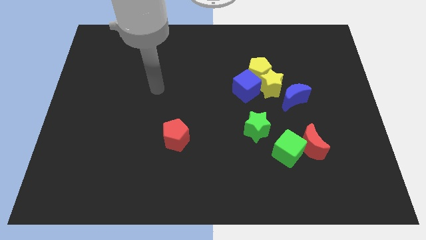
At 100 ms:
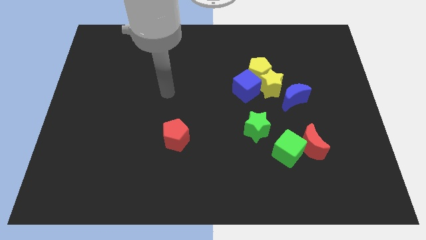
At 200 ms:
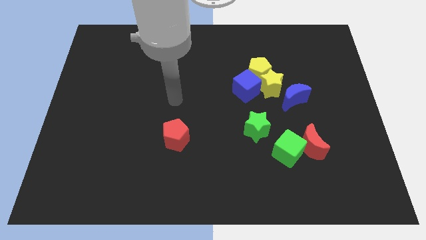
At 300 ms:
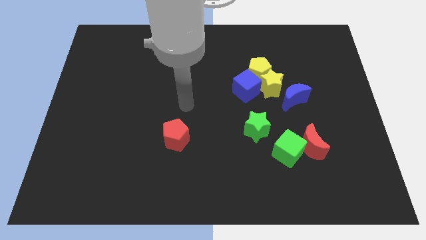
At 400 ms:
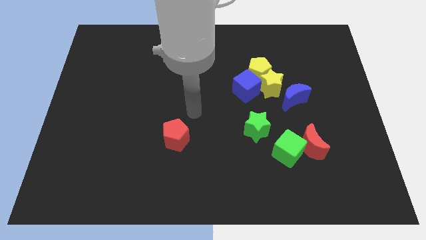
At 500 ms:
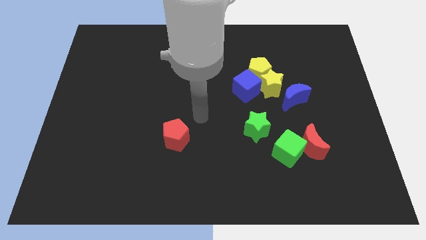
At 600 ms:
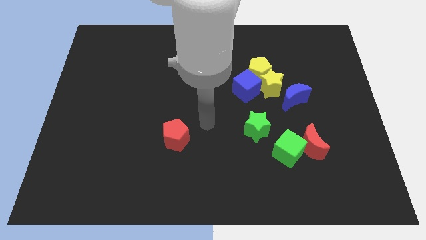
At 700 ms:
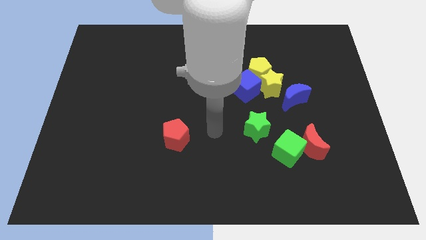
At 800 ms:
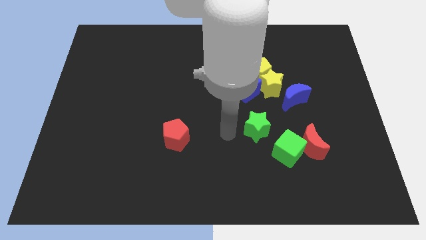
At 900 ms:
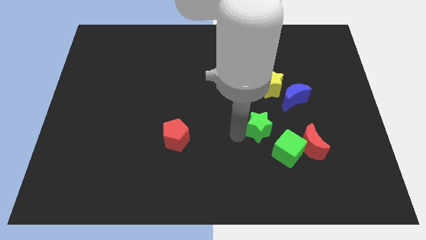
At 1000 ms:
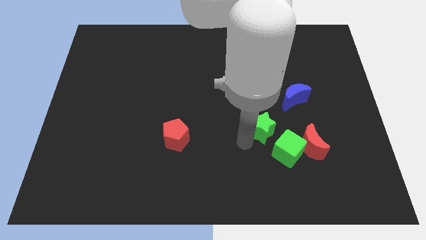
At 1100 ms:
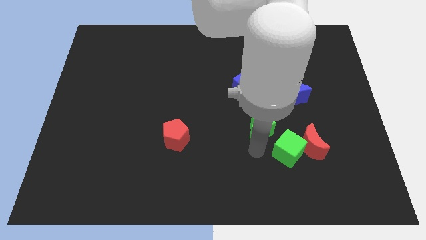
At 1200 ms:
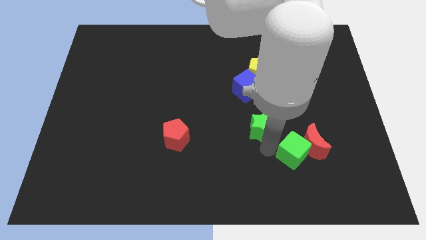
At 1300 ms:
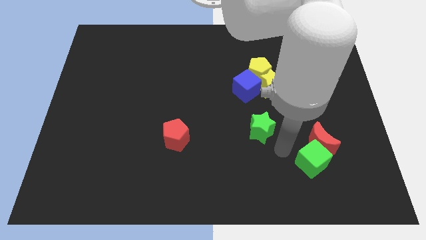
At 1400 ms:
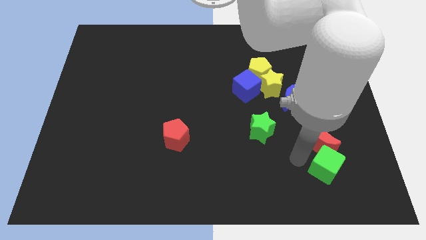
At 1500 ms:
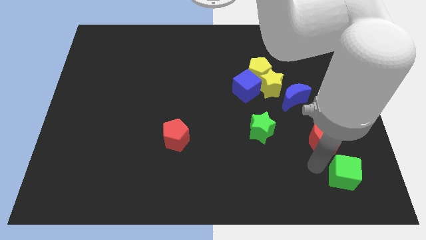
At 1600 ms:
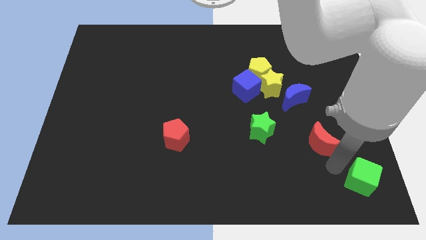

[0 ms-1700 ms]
move the red moon away from the green cube

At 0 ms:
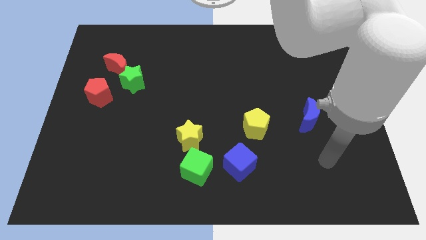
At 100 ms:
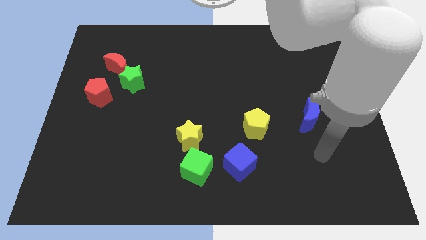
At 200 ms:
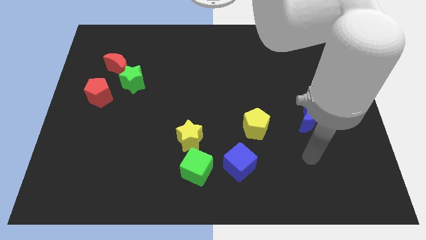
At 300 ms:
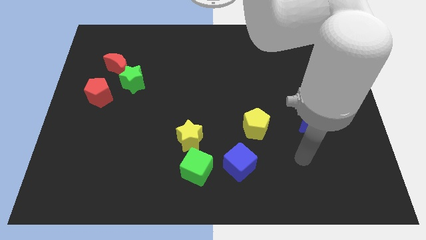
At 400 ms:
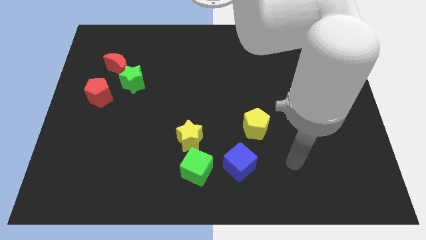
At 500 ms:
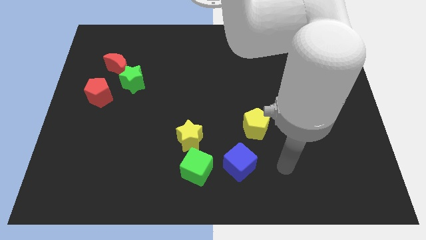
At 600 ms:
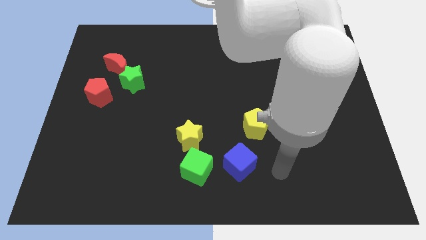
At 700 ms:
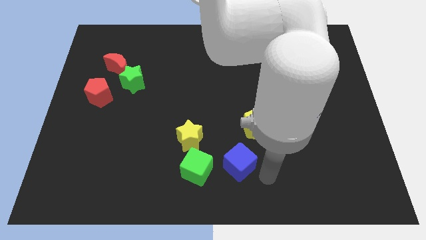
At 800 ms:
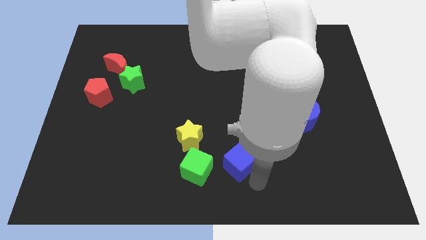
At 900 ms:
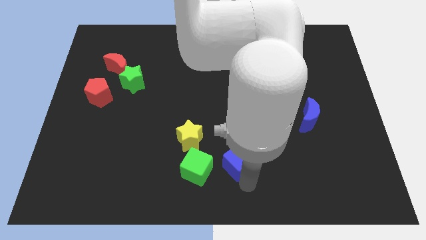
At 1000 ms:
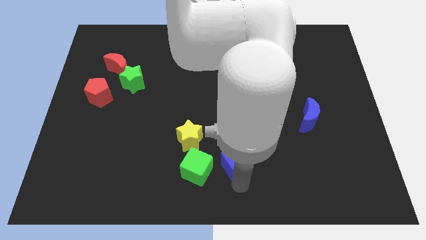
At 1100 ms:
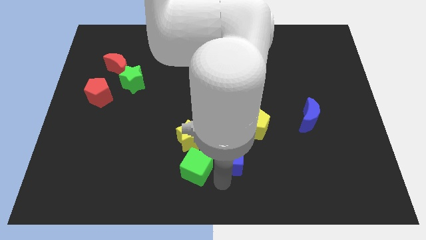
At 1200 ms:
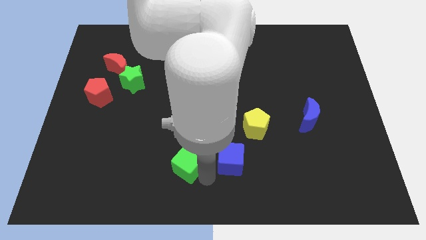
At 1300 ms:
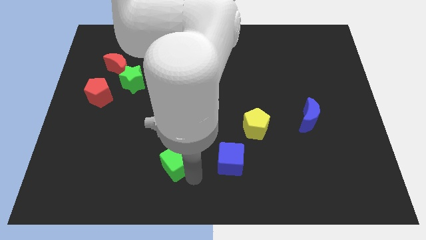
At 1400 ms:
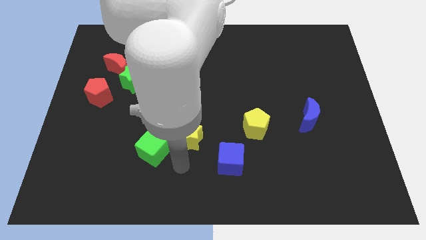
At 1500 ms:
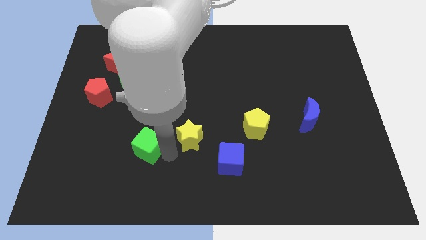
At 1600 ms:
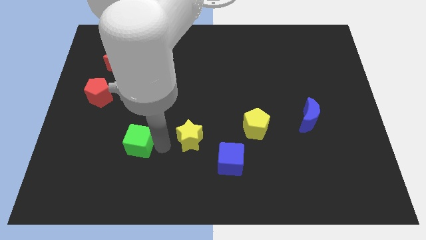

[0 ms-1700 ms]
move the yellow star away from the green cube

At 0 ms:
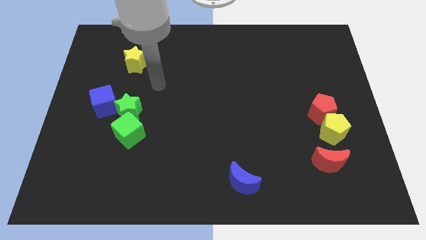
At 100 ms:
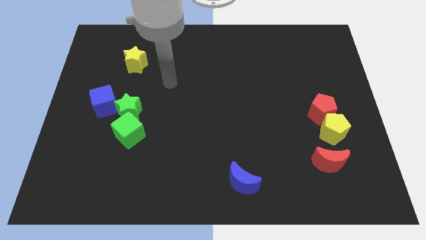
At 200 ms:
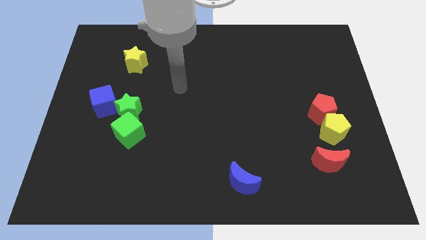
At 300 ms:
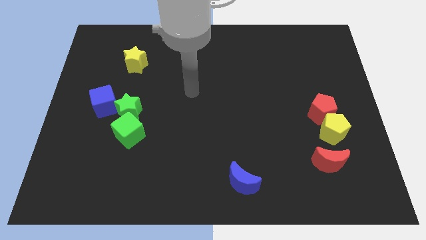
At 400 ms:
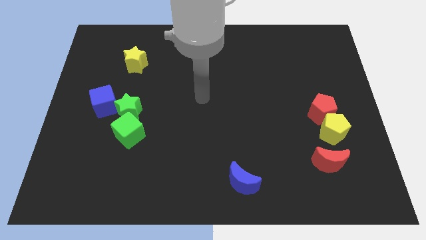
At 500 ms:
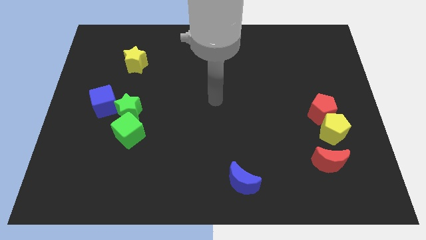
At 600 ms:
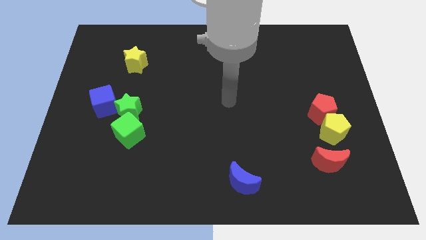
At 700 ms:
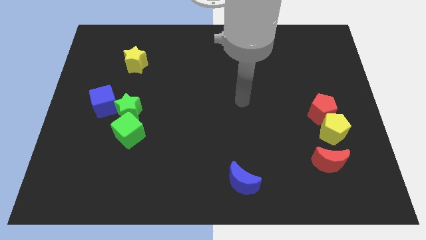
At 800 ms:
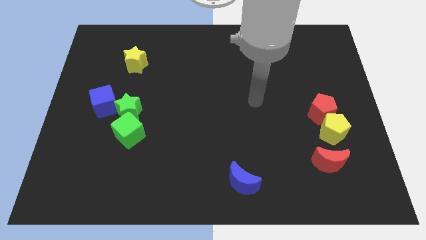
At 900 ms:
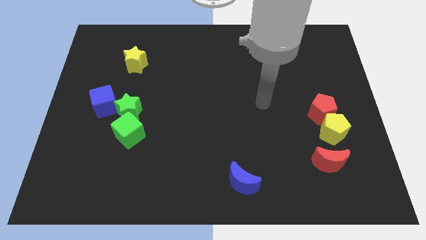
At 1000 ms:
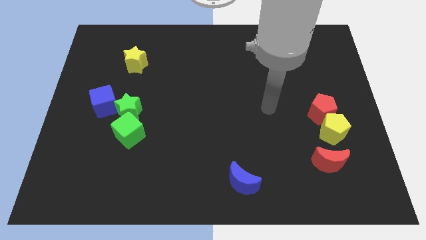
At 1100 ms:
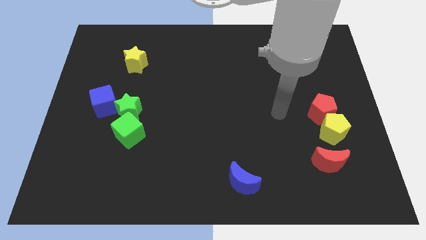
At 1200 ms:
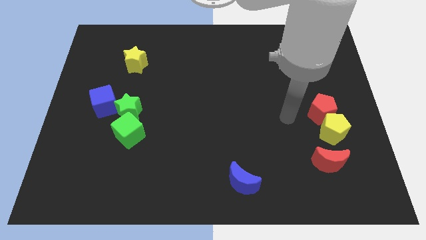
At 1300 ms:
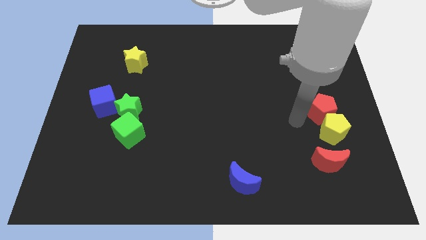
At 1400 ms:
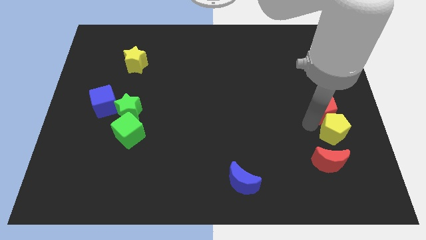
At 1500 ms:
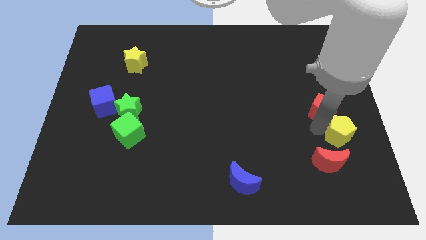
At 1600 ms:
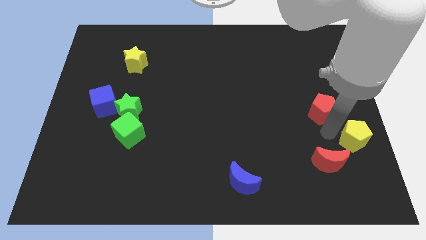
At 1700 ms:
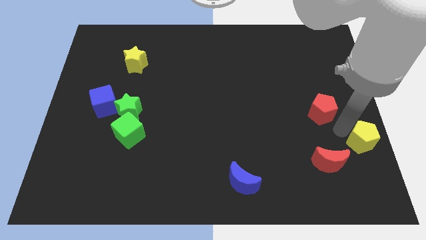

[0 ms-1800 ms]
move the red pentagon away from the yellow pentagon

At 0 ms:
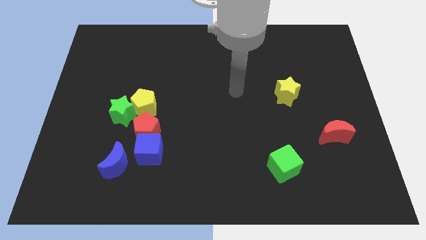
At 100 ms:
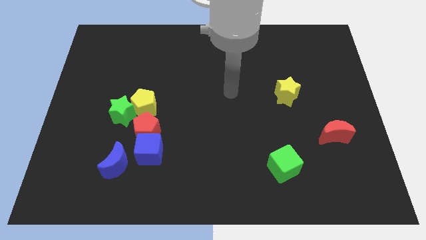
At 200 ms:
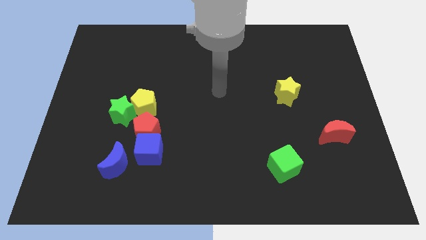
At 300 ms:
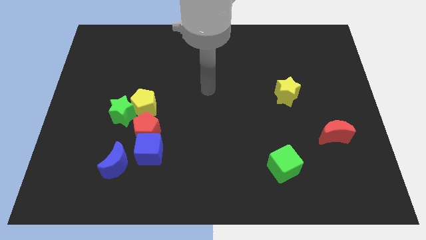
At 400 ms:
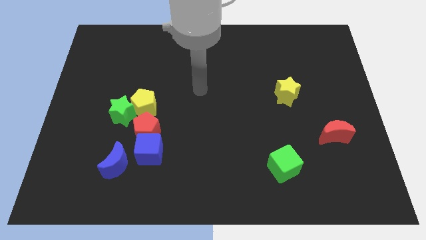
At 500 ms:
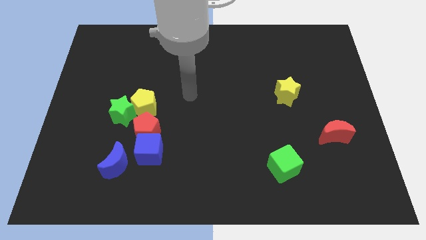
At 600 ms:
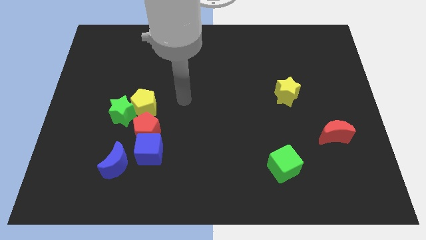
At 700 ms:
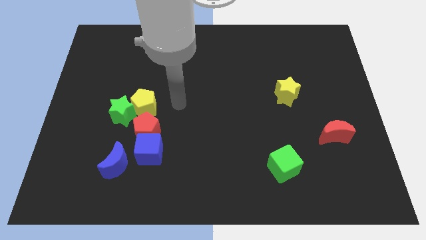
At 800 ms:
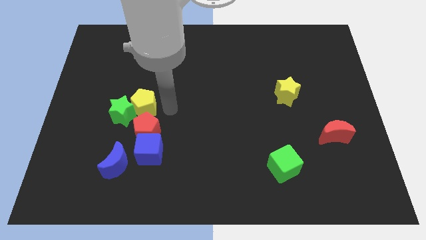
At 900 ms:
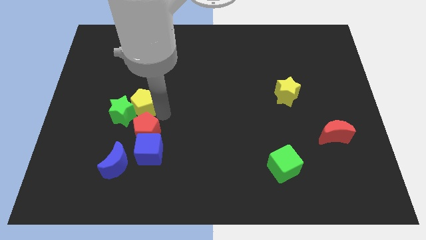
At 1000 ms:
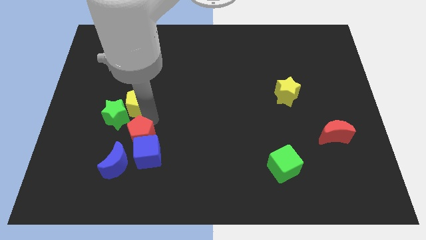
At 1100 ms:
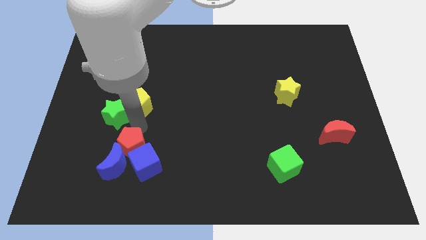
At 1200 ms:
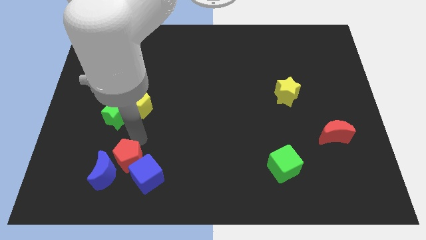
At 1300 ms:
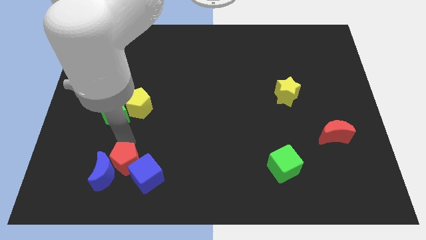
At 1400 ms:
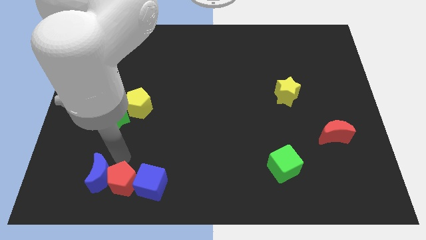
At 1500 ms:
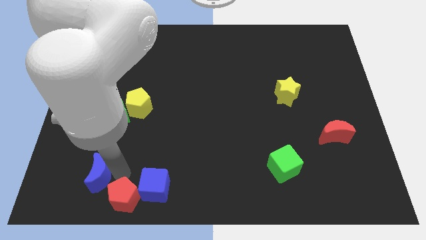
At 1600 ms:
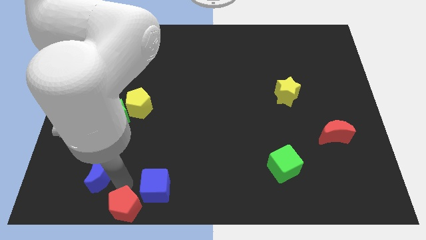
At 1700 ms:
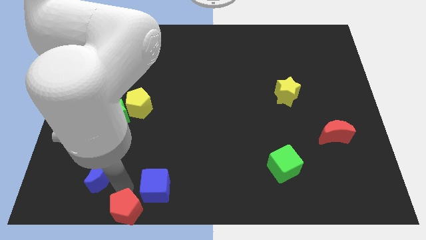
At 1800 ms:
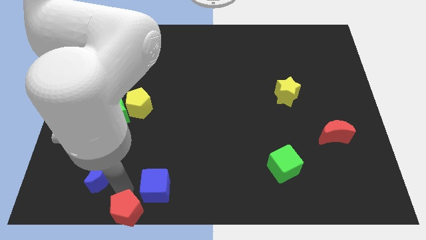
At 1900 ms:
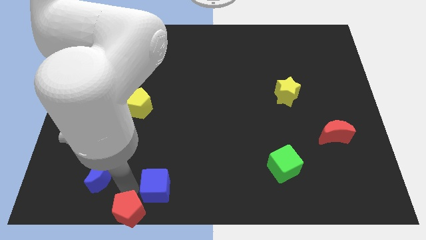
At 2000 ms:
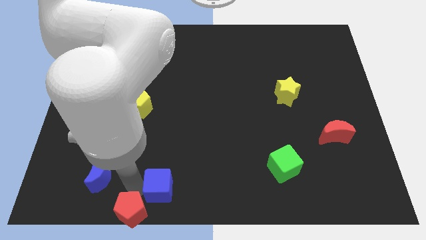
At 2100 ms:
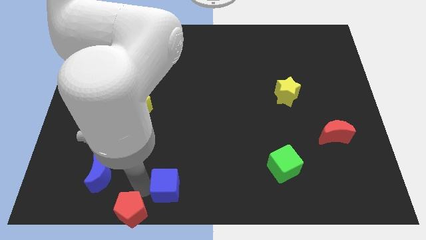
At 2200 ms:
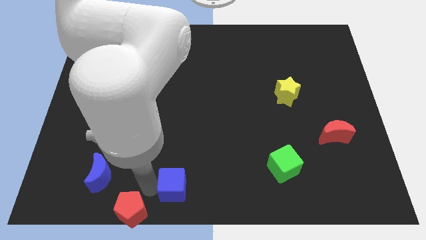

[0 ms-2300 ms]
move the blue cube away from the red pentagon and blue moon

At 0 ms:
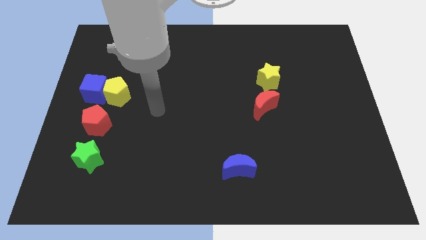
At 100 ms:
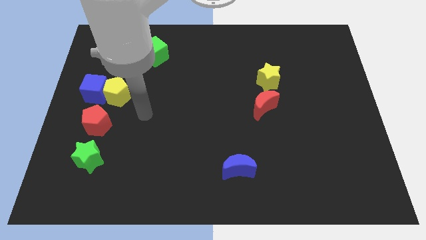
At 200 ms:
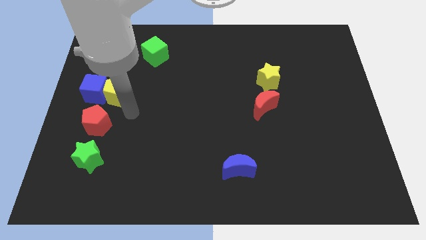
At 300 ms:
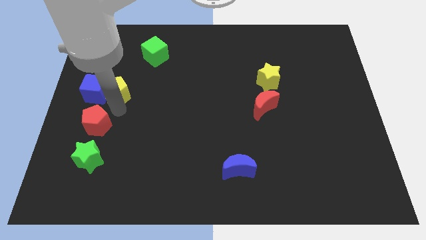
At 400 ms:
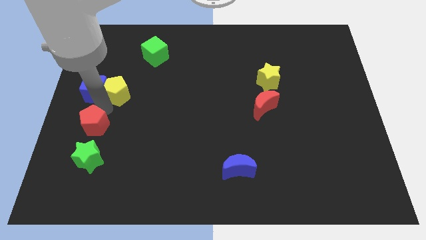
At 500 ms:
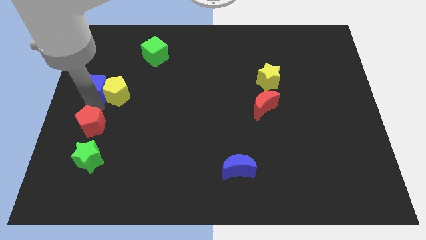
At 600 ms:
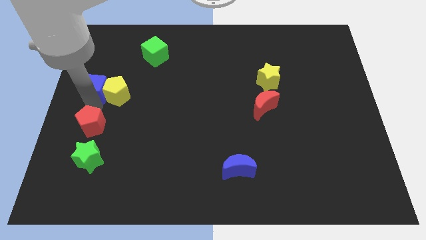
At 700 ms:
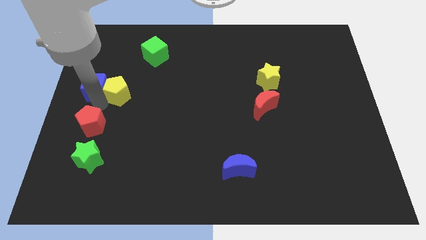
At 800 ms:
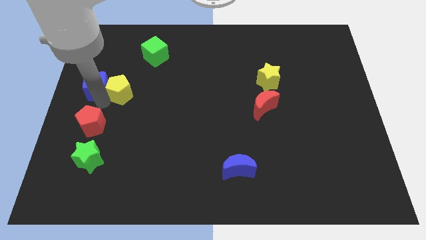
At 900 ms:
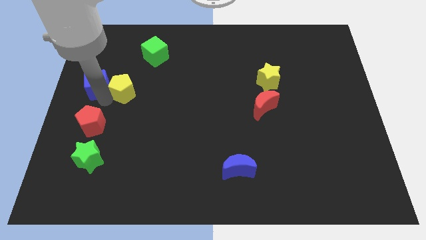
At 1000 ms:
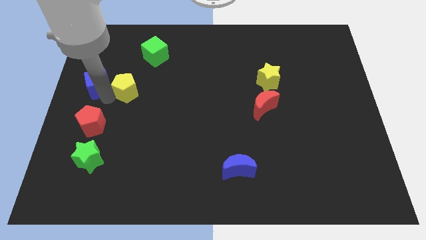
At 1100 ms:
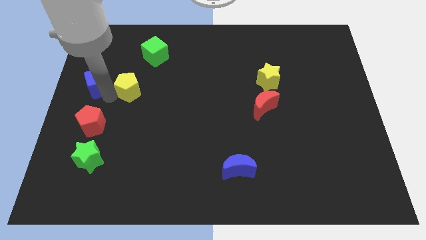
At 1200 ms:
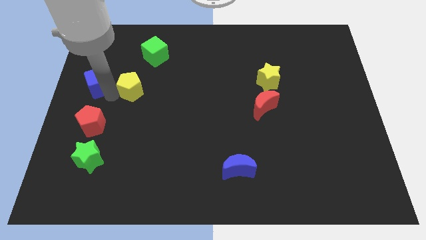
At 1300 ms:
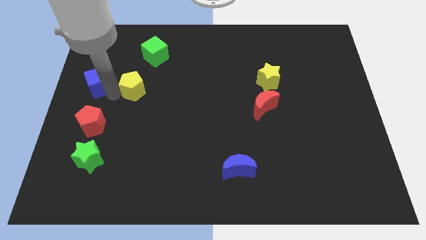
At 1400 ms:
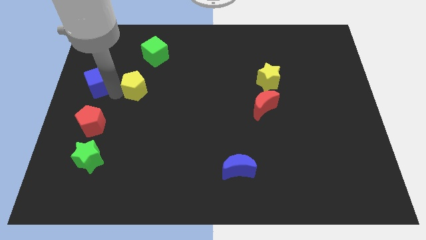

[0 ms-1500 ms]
pull the yellow pentagon apart from the blue cube and red pentagon

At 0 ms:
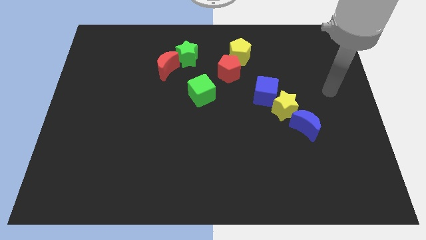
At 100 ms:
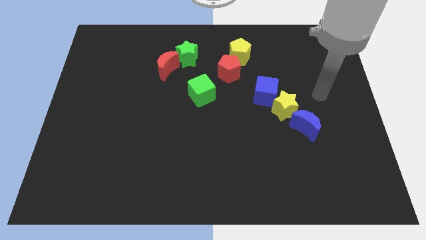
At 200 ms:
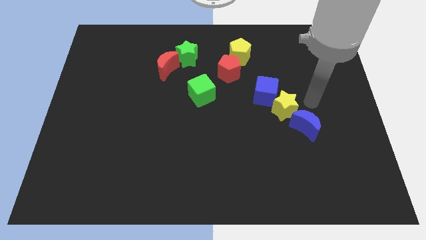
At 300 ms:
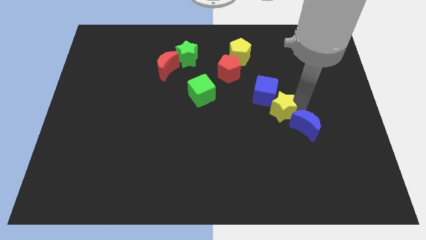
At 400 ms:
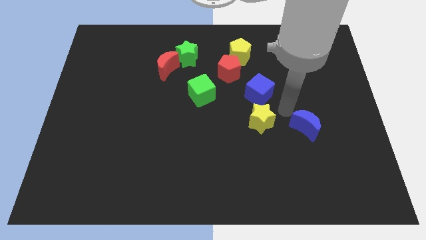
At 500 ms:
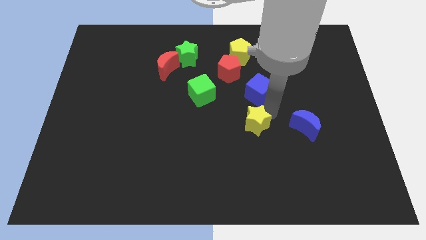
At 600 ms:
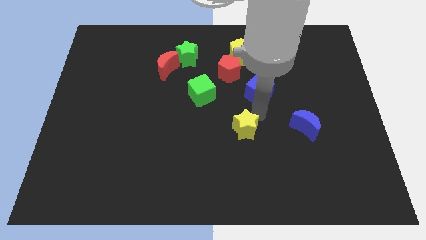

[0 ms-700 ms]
move the blue cube away from the yellow star
